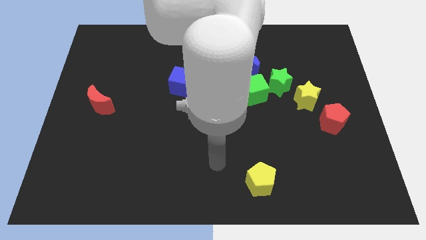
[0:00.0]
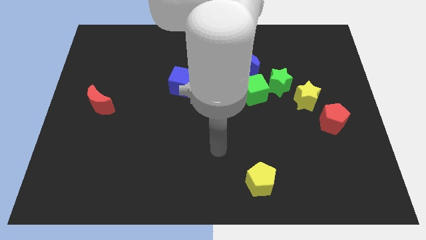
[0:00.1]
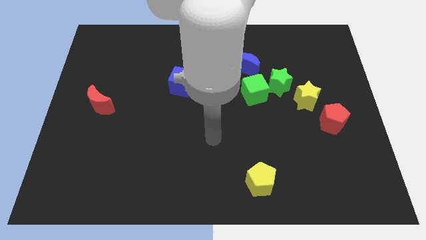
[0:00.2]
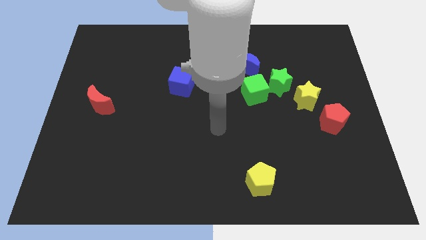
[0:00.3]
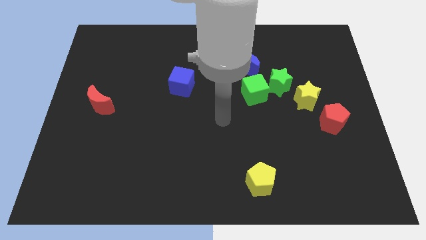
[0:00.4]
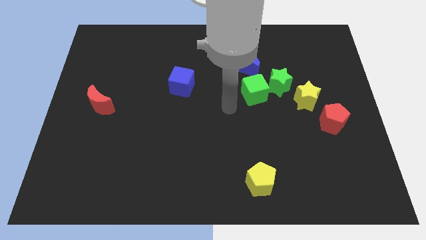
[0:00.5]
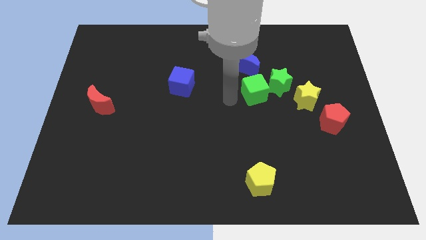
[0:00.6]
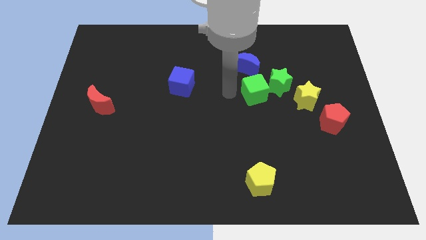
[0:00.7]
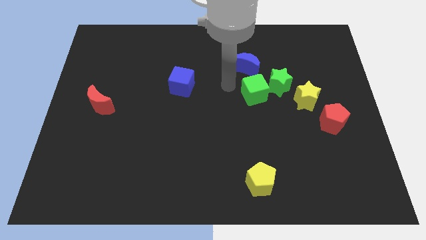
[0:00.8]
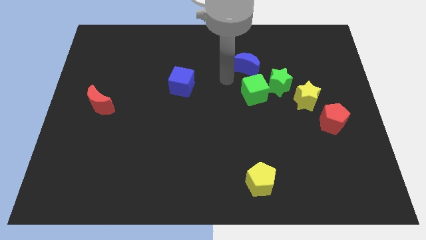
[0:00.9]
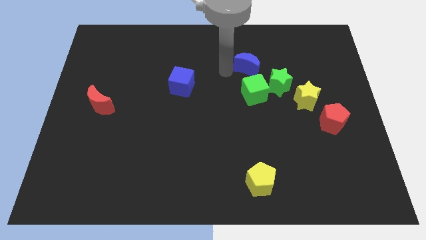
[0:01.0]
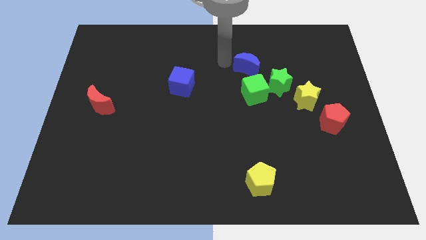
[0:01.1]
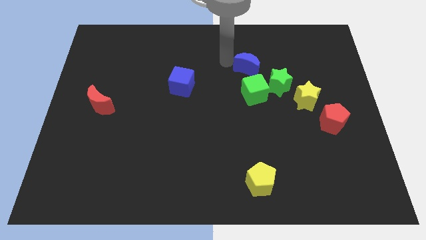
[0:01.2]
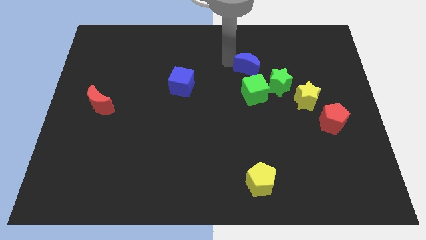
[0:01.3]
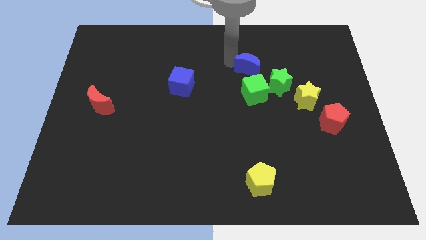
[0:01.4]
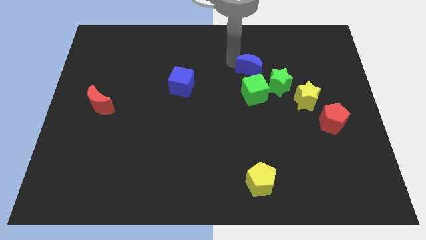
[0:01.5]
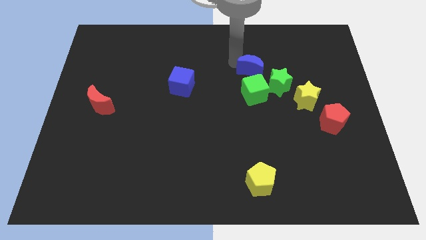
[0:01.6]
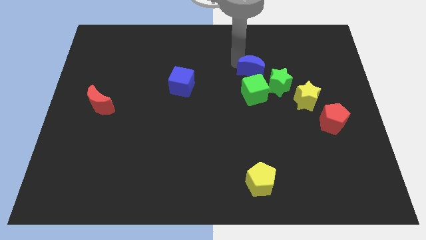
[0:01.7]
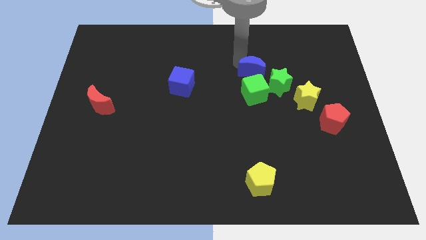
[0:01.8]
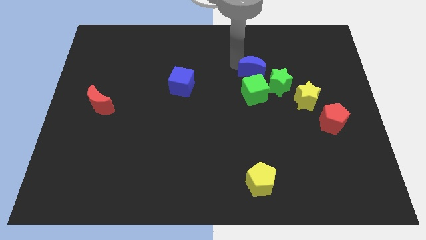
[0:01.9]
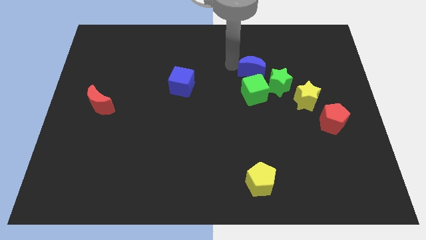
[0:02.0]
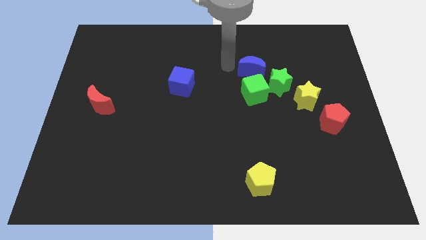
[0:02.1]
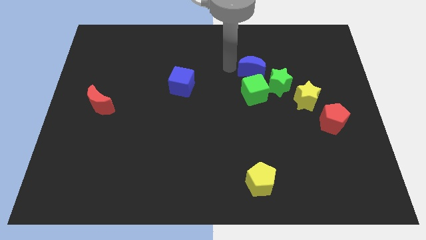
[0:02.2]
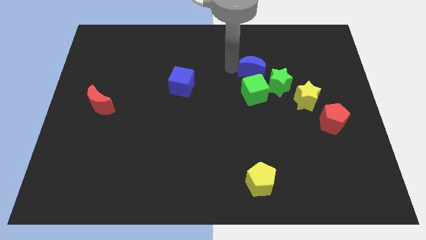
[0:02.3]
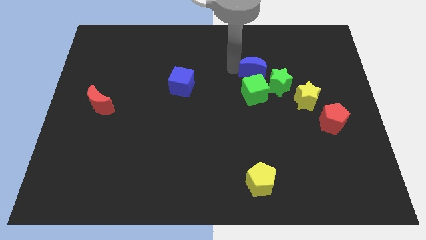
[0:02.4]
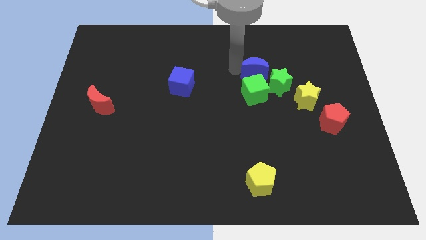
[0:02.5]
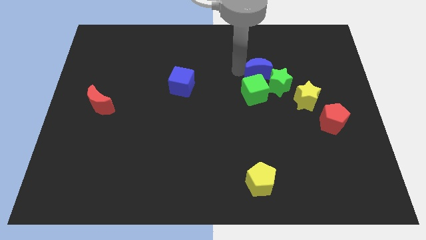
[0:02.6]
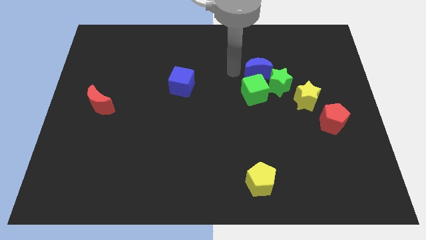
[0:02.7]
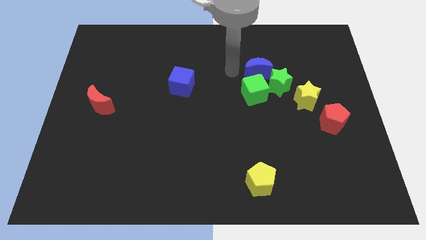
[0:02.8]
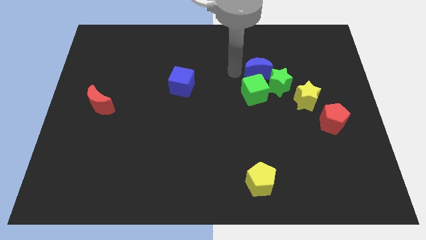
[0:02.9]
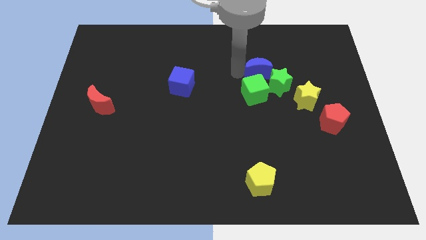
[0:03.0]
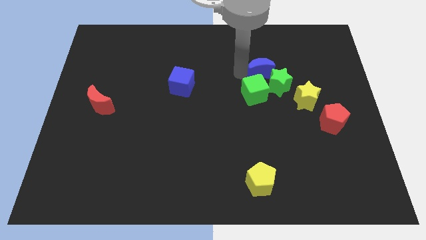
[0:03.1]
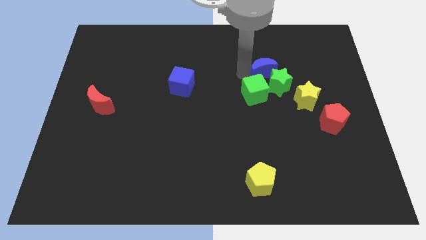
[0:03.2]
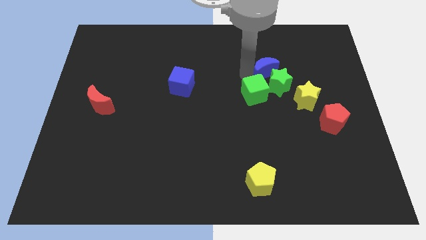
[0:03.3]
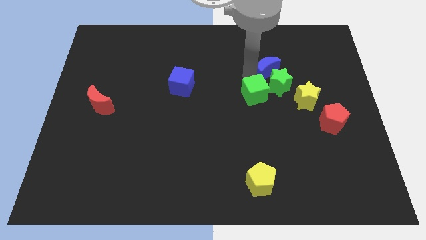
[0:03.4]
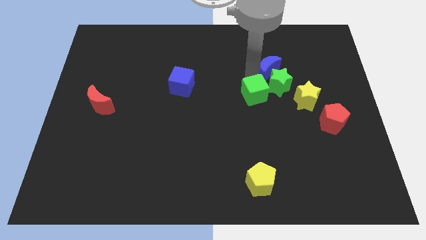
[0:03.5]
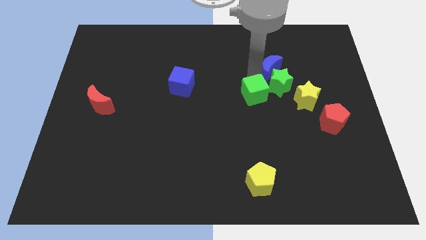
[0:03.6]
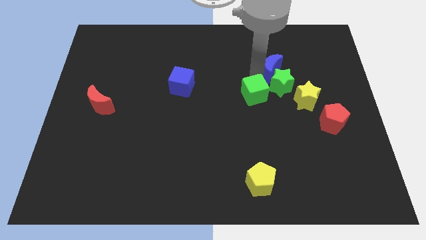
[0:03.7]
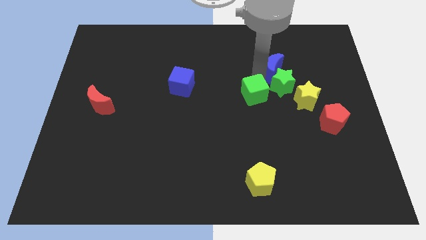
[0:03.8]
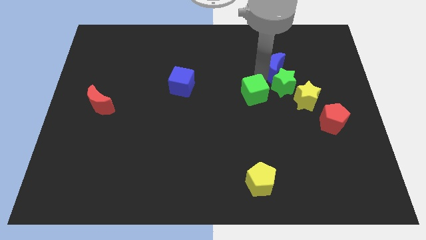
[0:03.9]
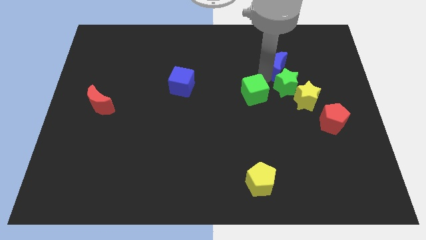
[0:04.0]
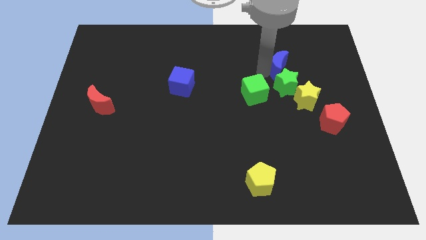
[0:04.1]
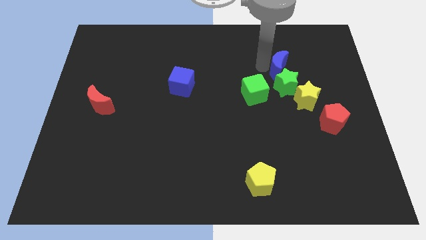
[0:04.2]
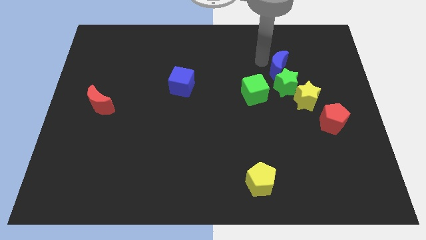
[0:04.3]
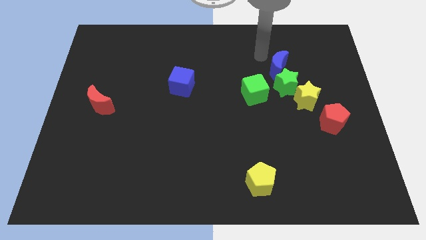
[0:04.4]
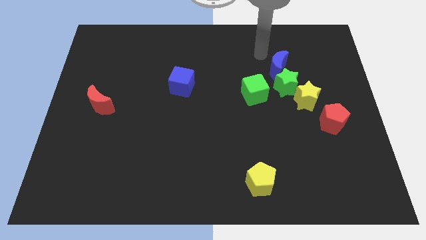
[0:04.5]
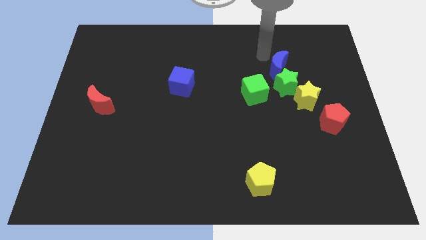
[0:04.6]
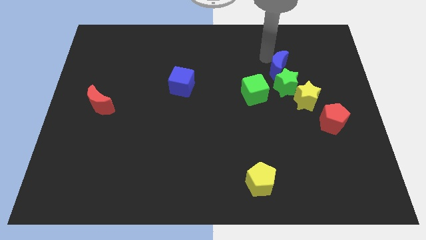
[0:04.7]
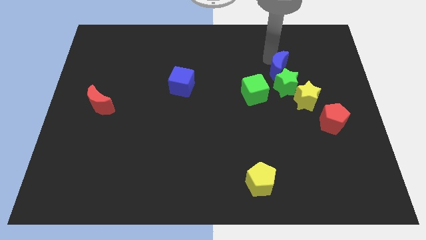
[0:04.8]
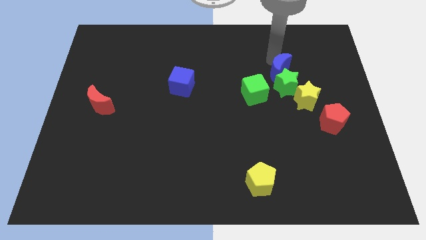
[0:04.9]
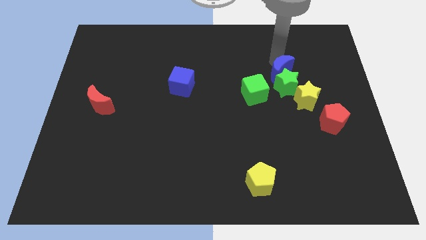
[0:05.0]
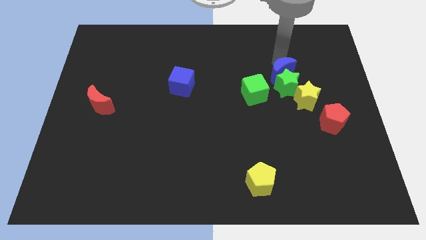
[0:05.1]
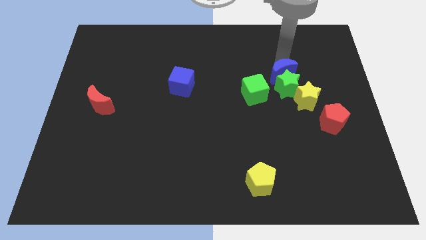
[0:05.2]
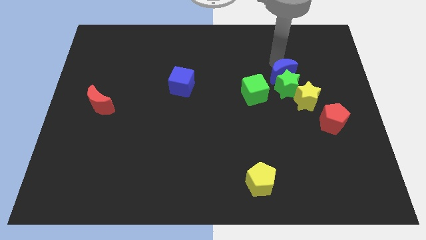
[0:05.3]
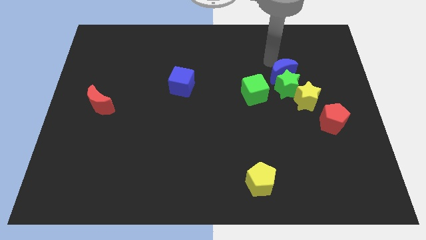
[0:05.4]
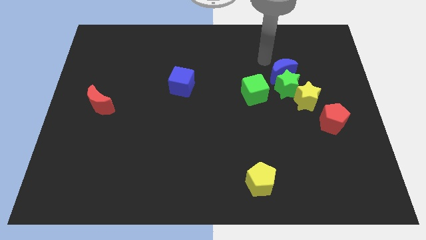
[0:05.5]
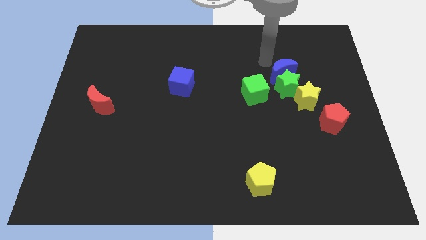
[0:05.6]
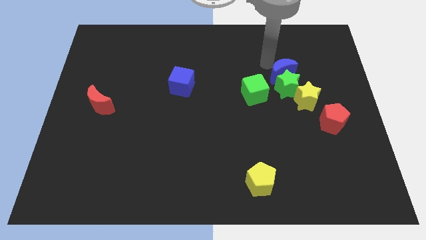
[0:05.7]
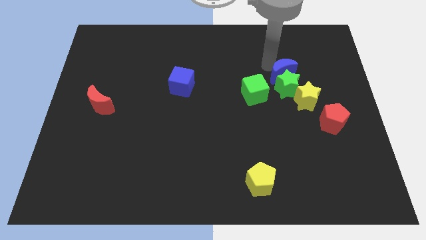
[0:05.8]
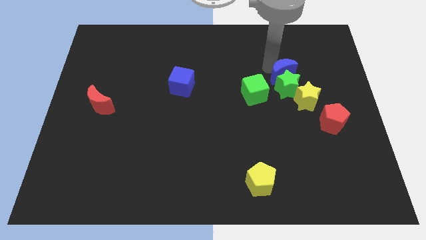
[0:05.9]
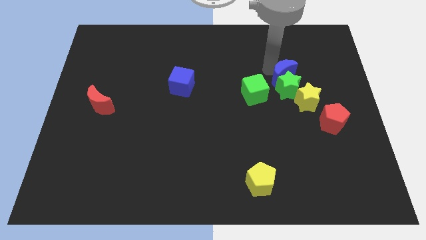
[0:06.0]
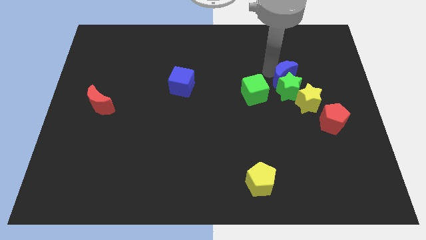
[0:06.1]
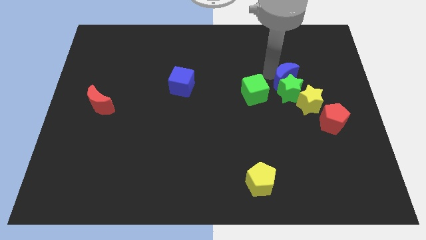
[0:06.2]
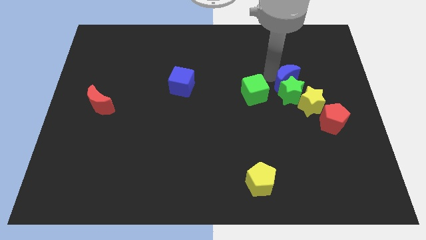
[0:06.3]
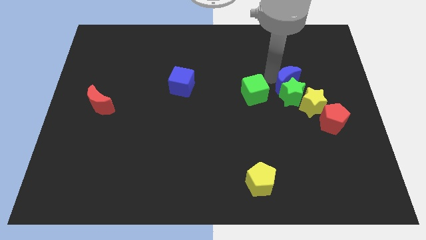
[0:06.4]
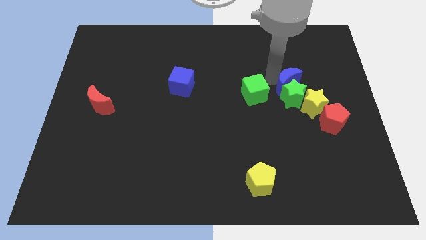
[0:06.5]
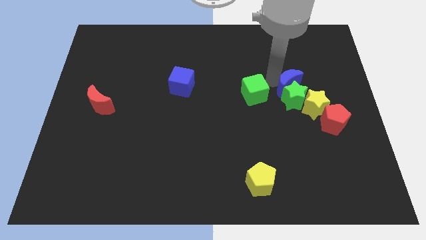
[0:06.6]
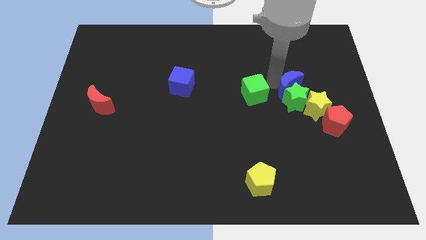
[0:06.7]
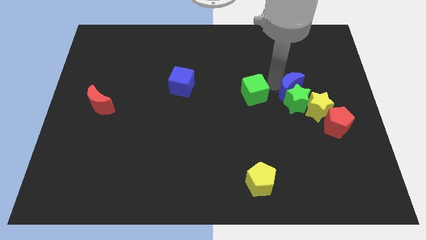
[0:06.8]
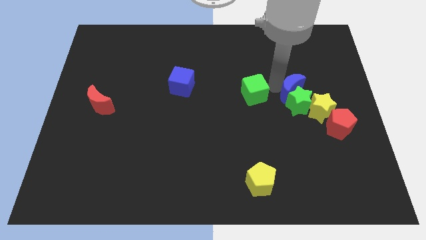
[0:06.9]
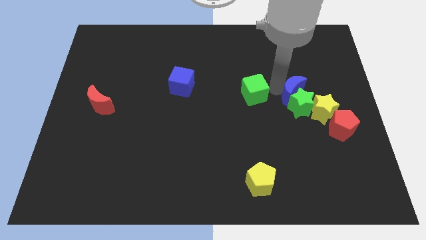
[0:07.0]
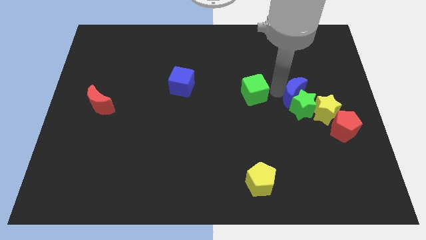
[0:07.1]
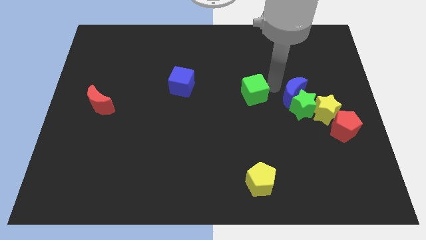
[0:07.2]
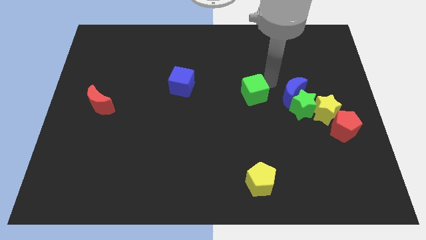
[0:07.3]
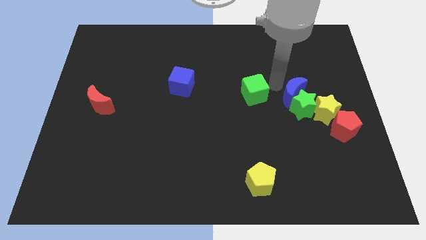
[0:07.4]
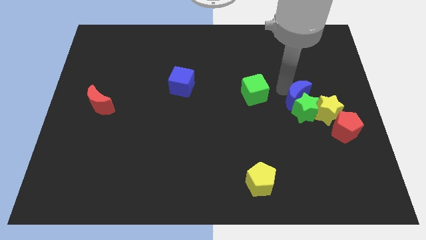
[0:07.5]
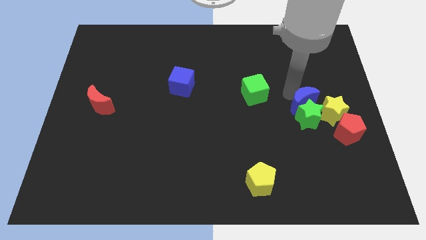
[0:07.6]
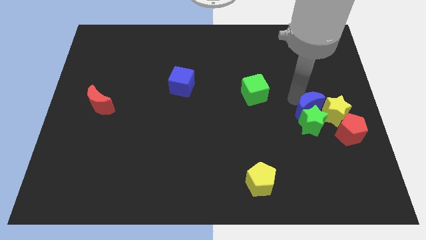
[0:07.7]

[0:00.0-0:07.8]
slide the blue moon to the yellow star
